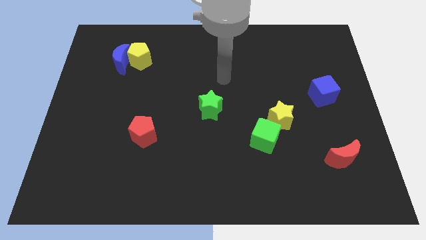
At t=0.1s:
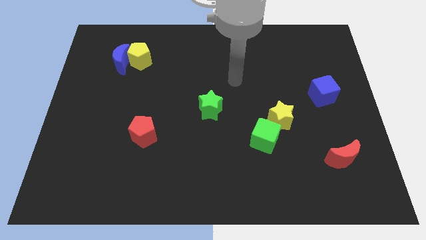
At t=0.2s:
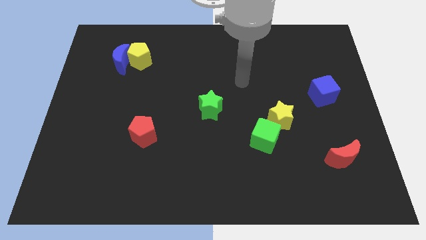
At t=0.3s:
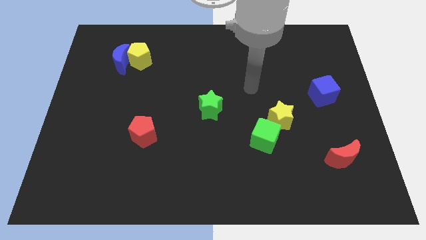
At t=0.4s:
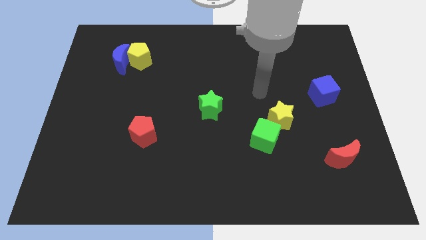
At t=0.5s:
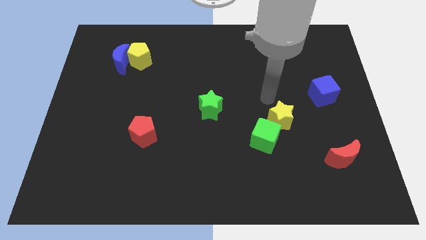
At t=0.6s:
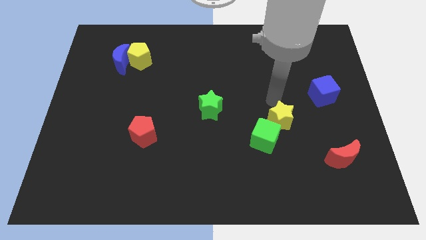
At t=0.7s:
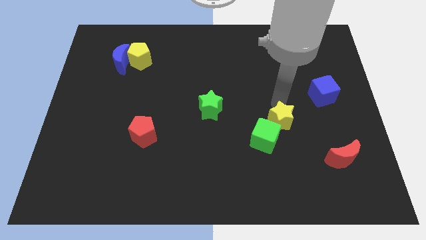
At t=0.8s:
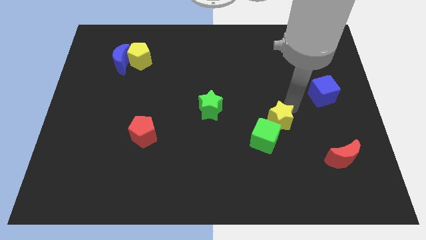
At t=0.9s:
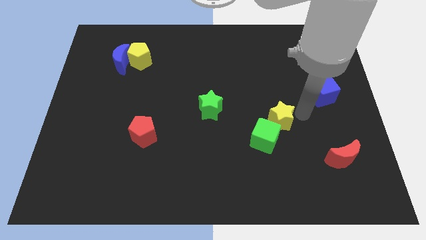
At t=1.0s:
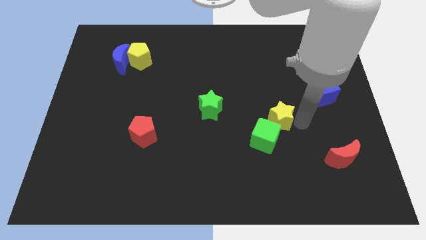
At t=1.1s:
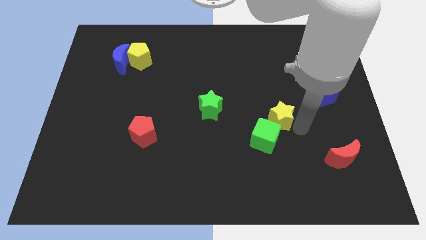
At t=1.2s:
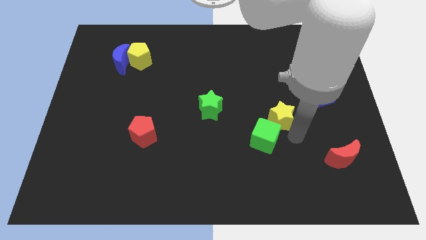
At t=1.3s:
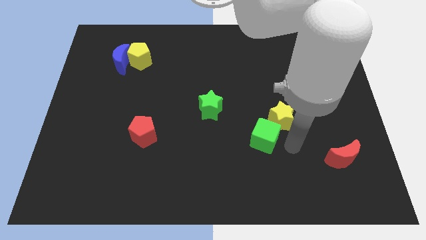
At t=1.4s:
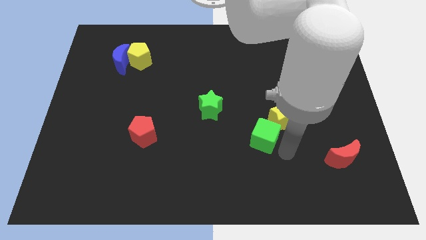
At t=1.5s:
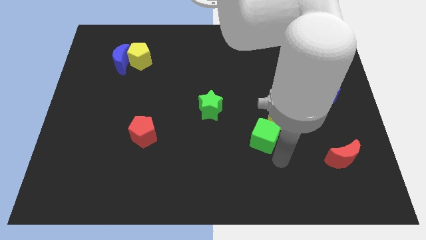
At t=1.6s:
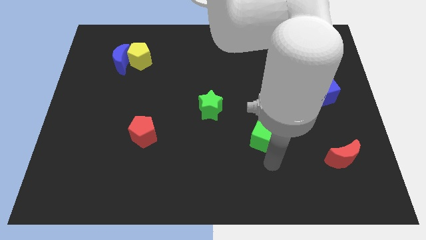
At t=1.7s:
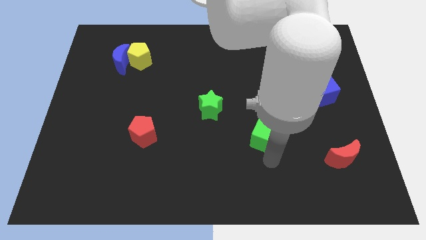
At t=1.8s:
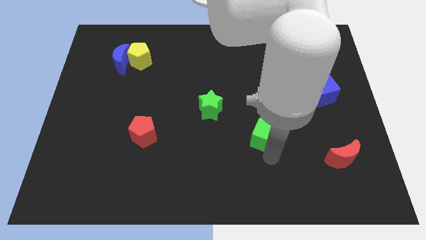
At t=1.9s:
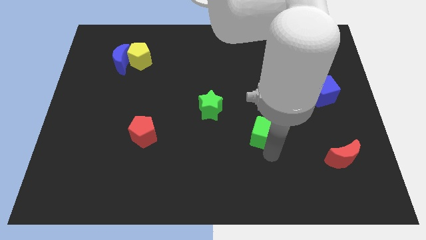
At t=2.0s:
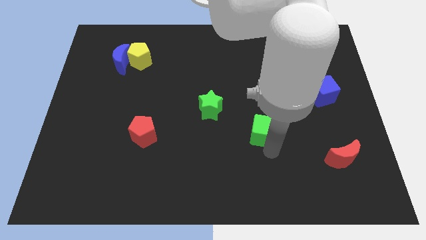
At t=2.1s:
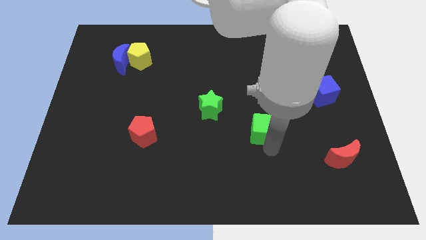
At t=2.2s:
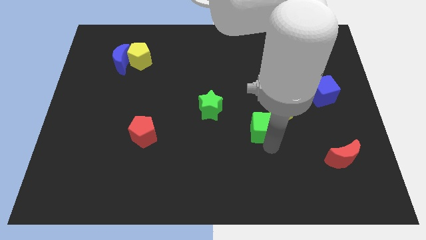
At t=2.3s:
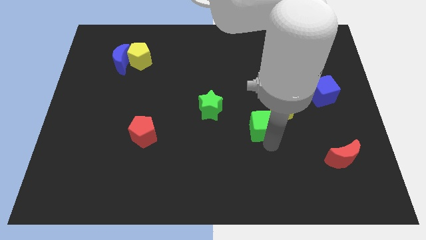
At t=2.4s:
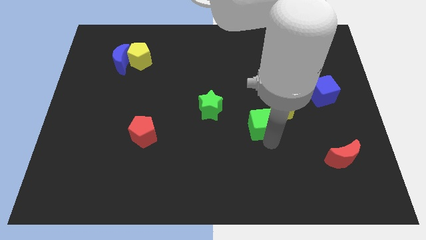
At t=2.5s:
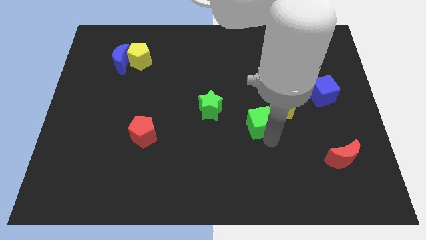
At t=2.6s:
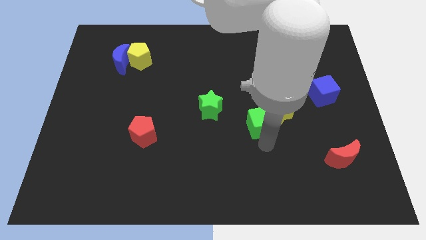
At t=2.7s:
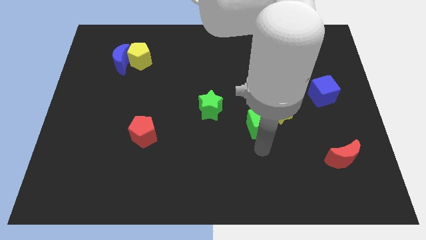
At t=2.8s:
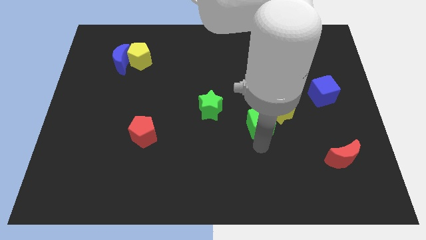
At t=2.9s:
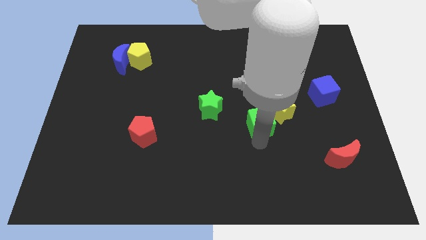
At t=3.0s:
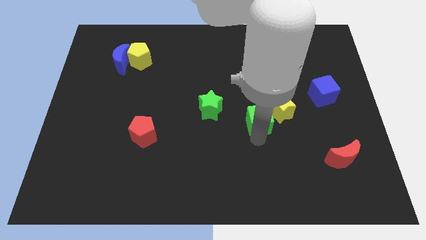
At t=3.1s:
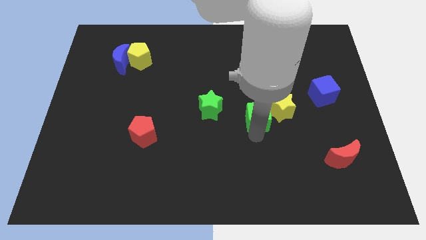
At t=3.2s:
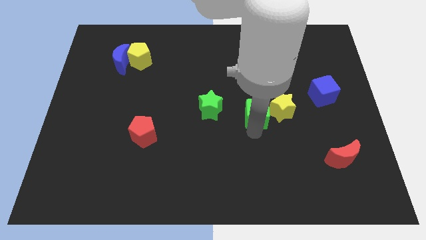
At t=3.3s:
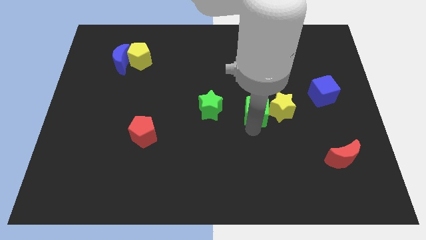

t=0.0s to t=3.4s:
move the green cube a bit up

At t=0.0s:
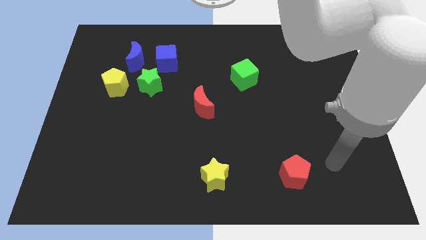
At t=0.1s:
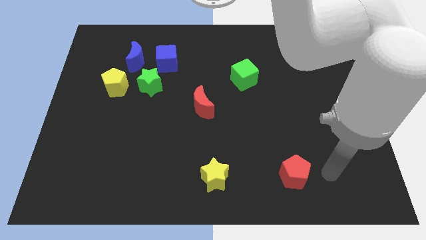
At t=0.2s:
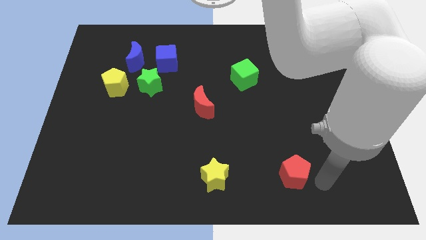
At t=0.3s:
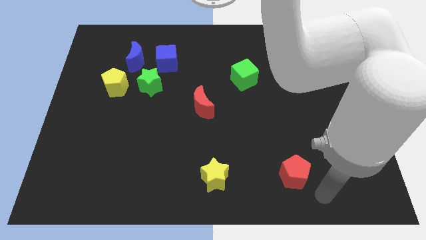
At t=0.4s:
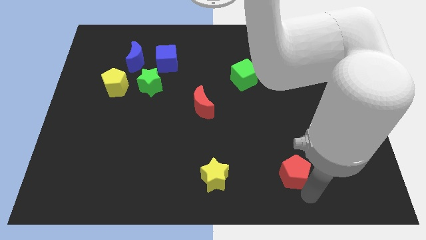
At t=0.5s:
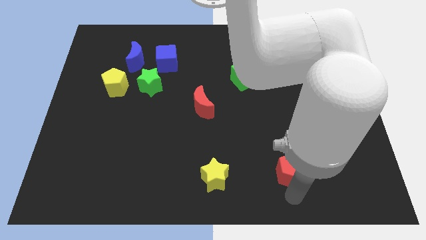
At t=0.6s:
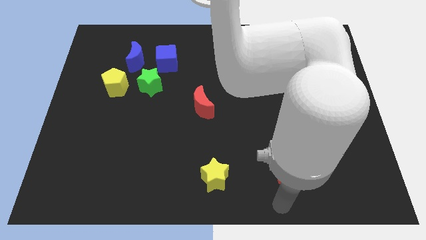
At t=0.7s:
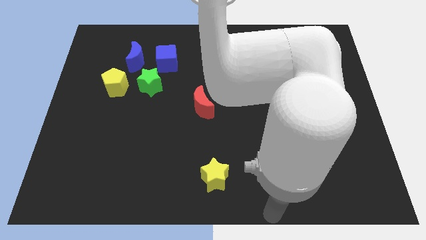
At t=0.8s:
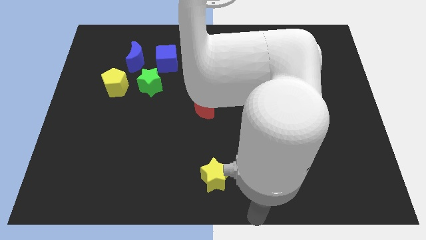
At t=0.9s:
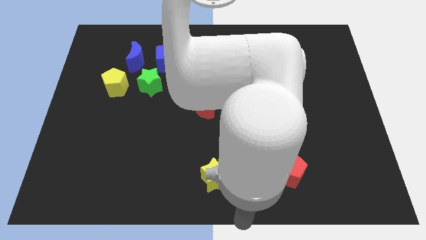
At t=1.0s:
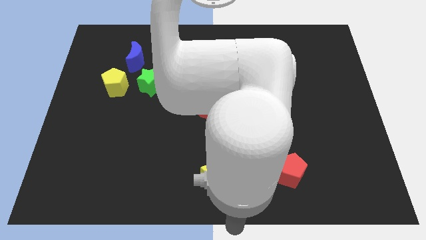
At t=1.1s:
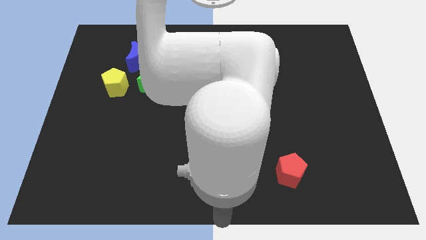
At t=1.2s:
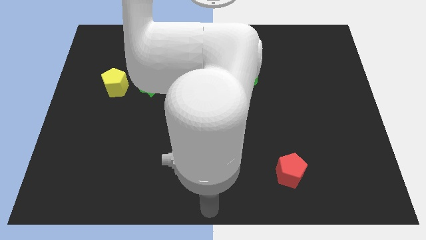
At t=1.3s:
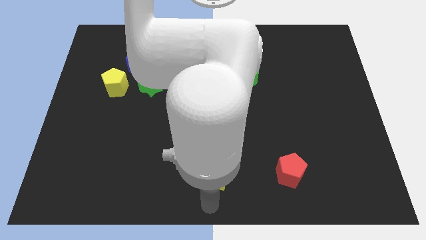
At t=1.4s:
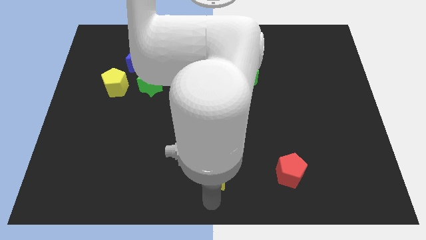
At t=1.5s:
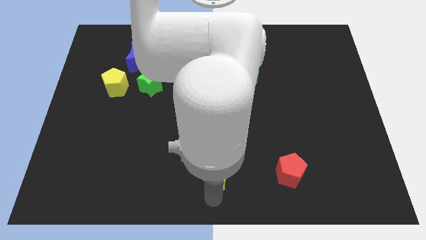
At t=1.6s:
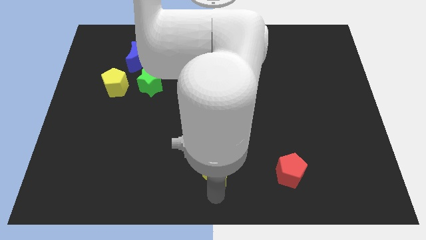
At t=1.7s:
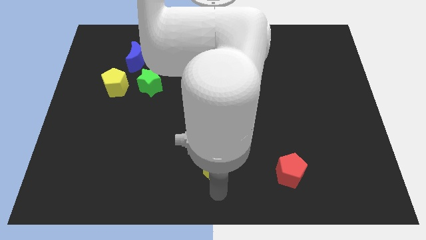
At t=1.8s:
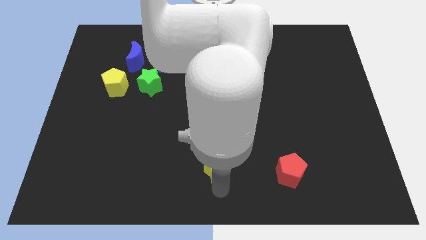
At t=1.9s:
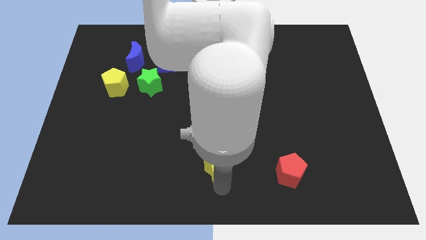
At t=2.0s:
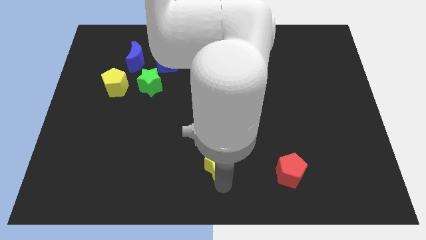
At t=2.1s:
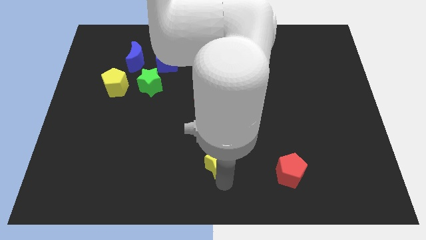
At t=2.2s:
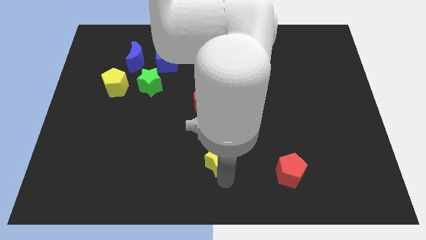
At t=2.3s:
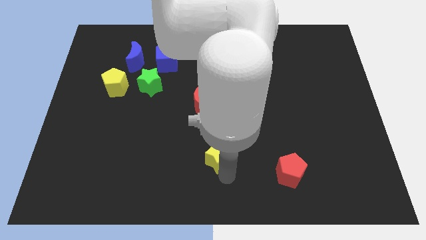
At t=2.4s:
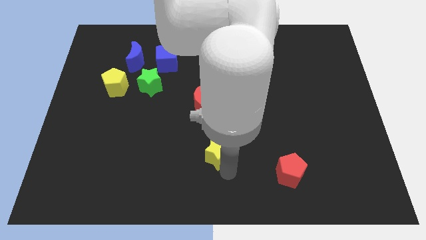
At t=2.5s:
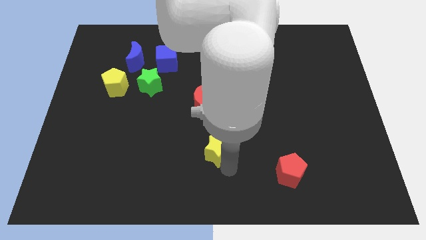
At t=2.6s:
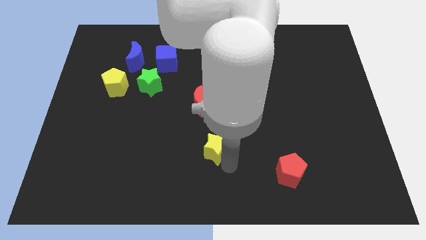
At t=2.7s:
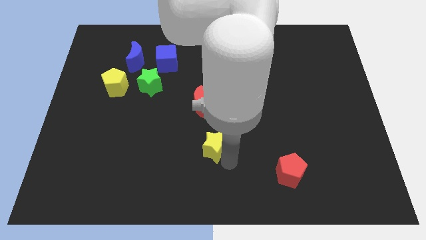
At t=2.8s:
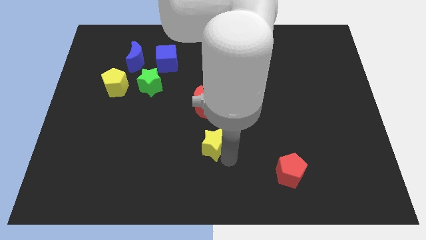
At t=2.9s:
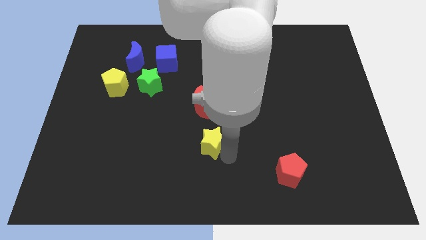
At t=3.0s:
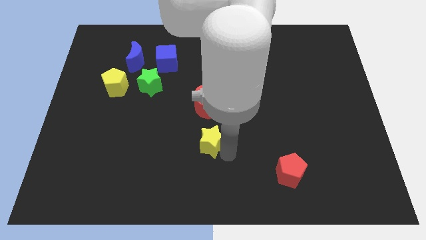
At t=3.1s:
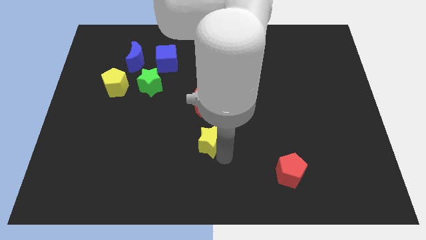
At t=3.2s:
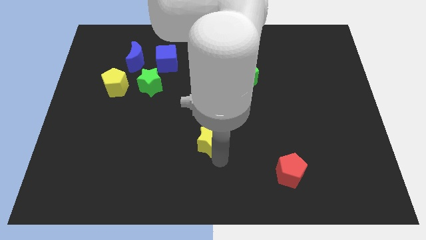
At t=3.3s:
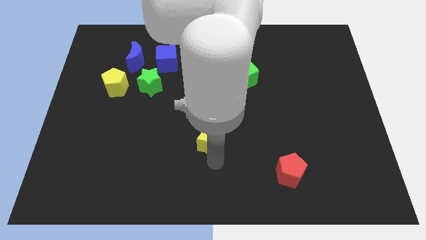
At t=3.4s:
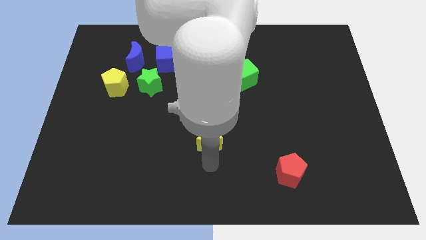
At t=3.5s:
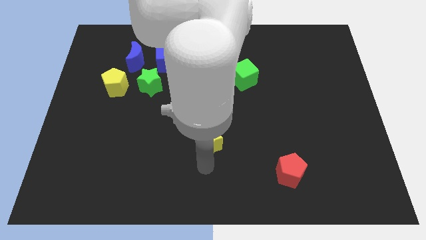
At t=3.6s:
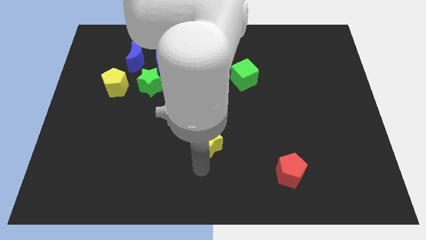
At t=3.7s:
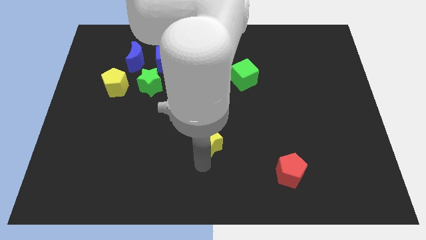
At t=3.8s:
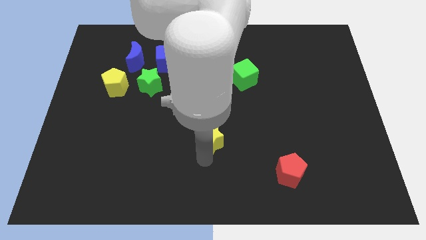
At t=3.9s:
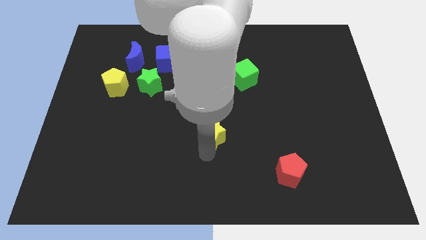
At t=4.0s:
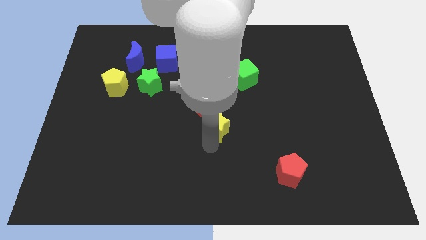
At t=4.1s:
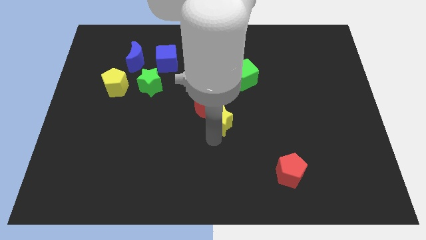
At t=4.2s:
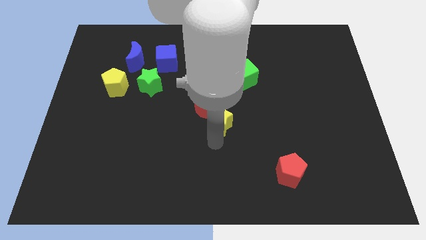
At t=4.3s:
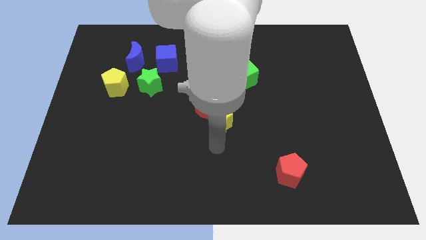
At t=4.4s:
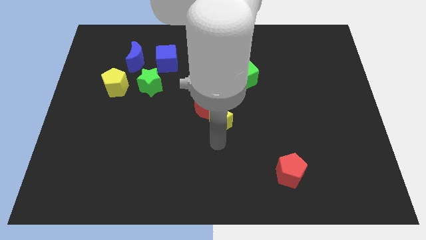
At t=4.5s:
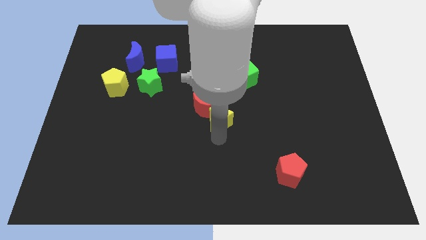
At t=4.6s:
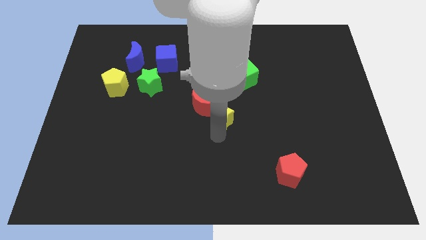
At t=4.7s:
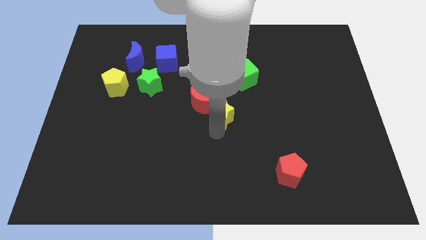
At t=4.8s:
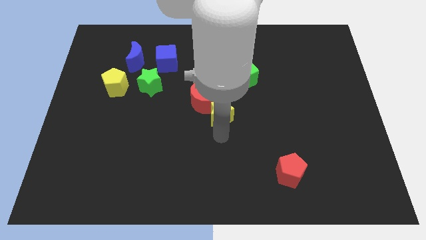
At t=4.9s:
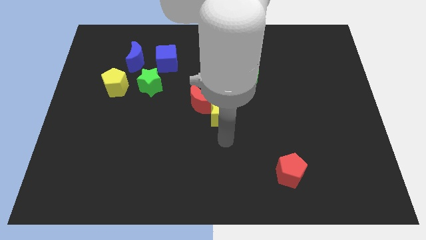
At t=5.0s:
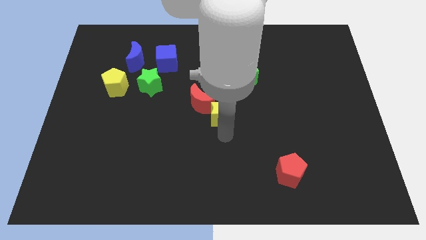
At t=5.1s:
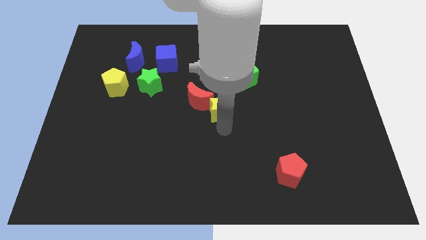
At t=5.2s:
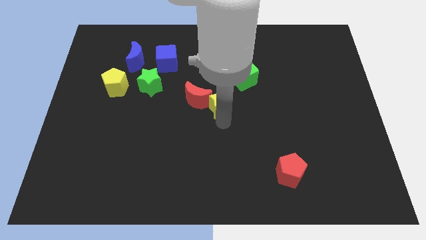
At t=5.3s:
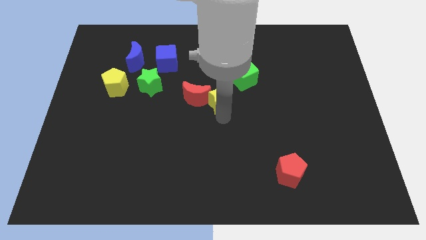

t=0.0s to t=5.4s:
move the yellow star up
